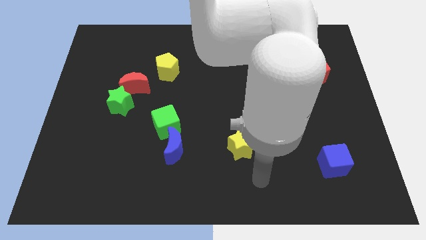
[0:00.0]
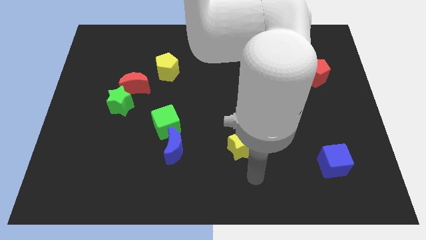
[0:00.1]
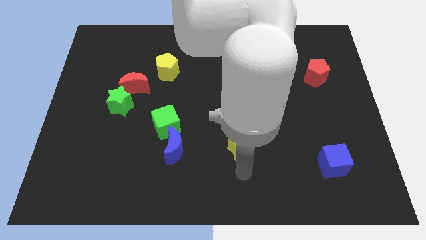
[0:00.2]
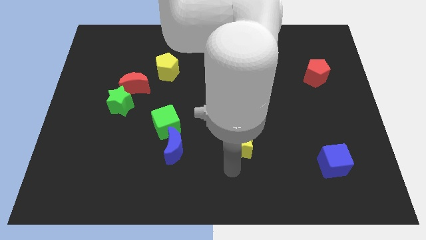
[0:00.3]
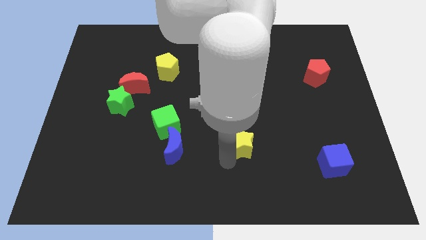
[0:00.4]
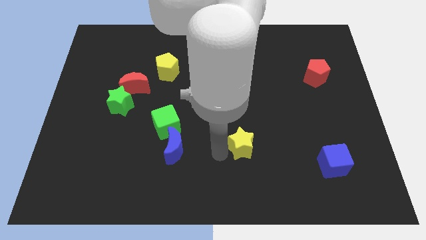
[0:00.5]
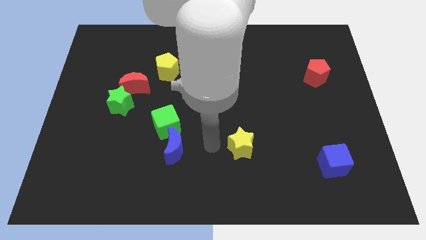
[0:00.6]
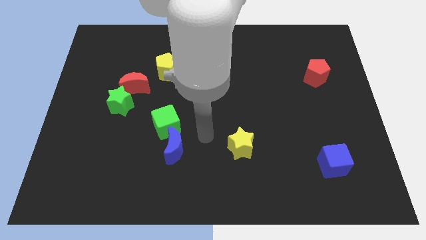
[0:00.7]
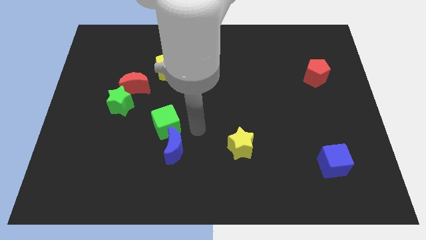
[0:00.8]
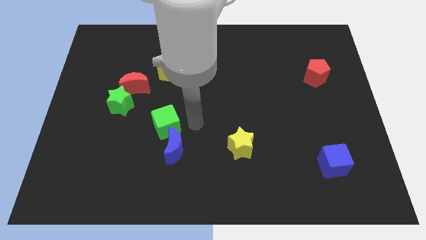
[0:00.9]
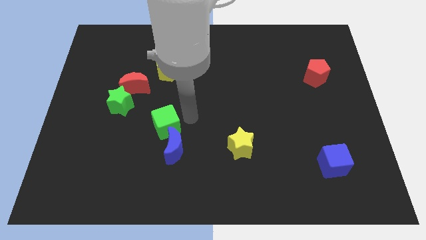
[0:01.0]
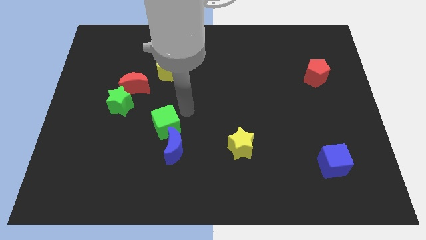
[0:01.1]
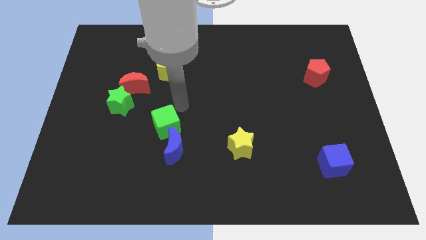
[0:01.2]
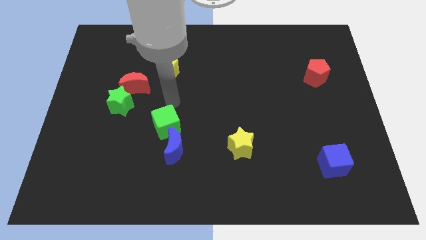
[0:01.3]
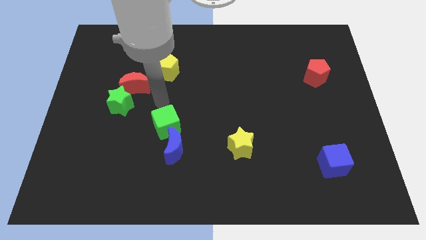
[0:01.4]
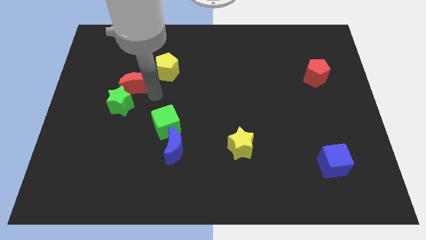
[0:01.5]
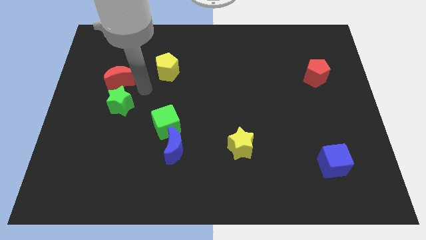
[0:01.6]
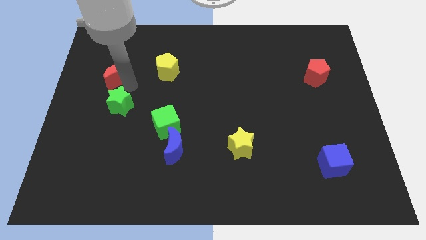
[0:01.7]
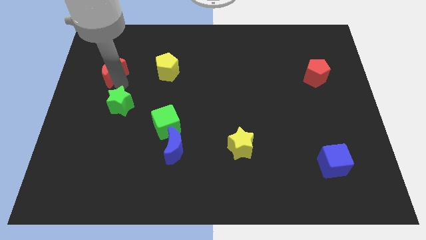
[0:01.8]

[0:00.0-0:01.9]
separate the green star from the red moon

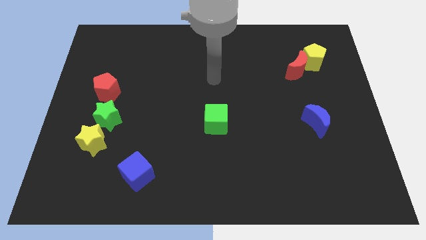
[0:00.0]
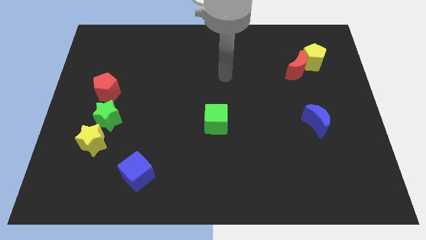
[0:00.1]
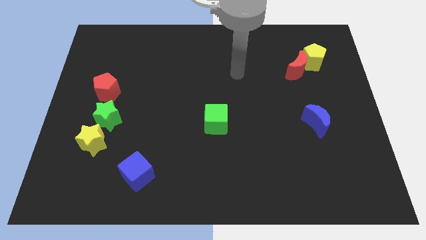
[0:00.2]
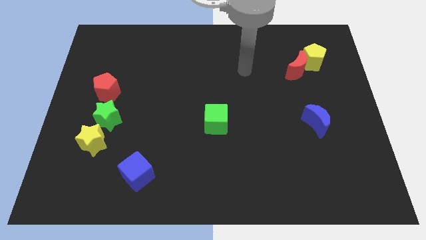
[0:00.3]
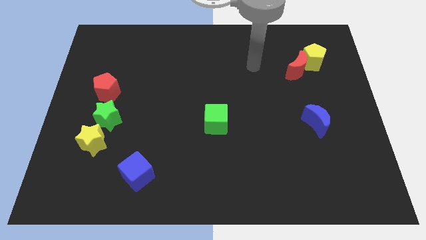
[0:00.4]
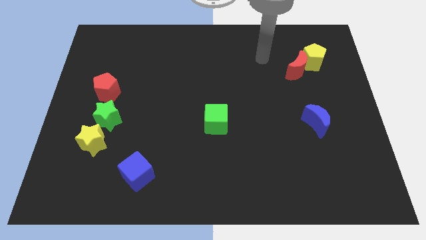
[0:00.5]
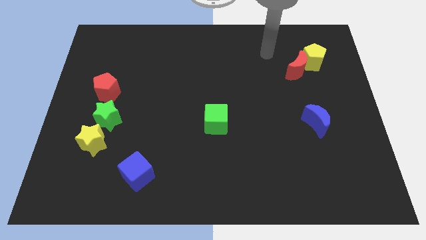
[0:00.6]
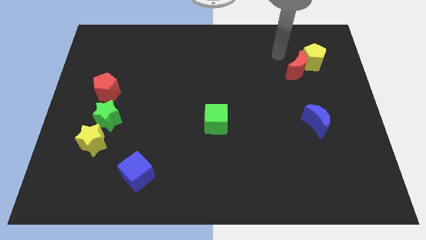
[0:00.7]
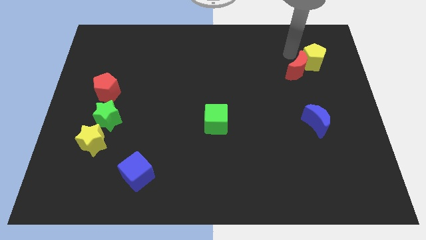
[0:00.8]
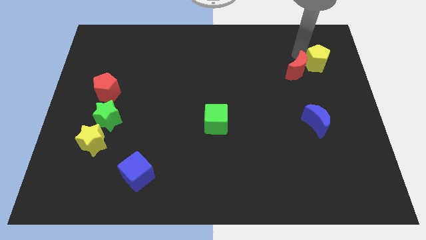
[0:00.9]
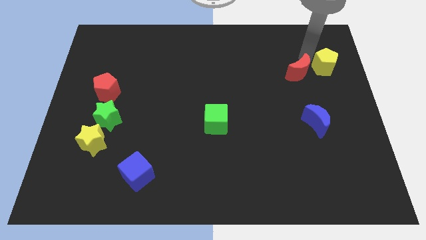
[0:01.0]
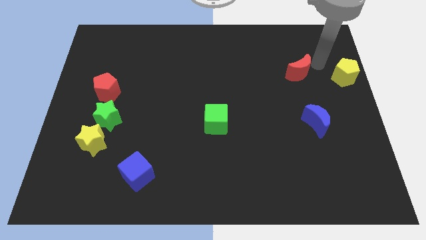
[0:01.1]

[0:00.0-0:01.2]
move the red moon away from the yellow pentagon

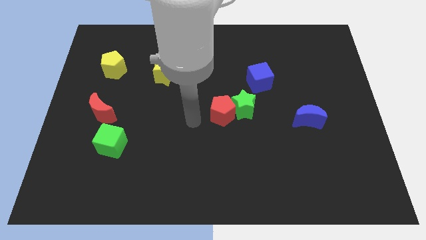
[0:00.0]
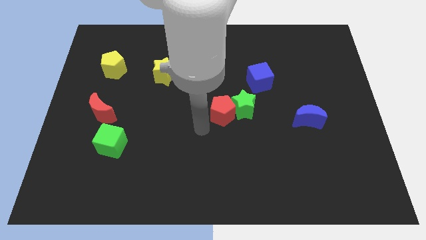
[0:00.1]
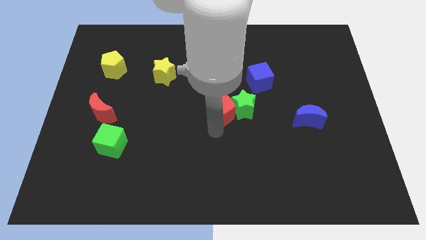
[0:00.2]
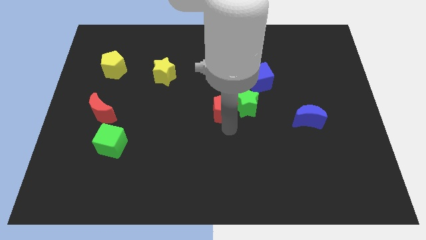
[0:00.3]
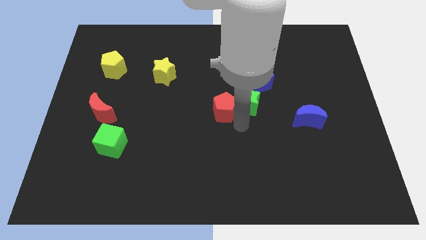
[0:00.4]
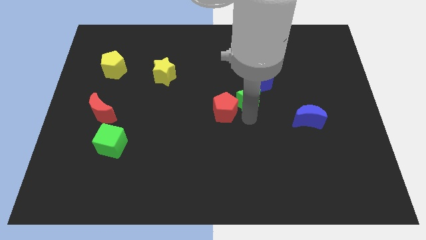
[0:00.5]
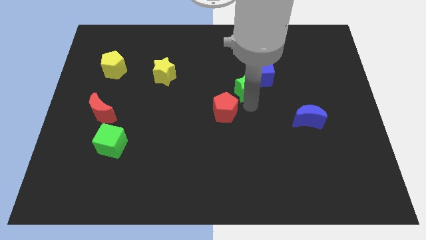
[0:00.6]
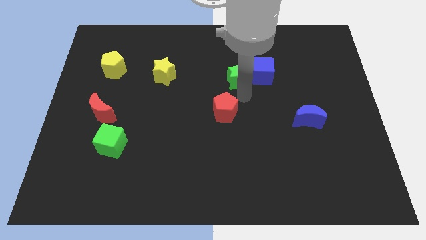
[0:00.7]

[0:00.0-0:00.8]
move the red pentagon away from the green star

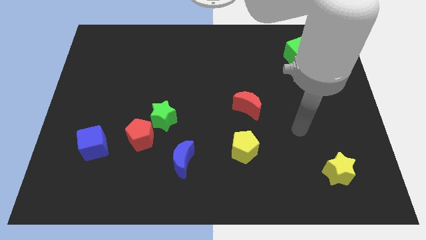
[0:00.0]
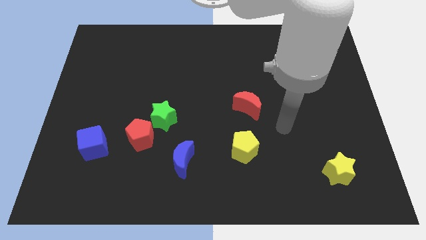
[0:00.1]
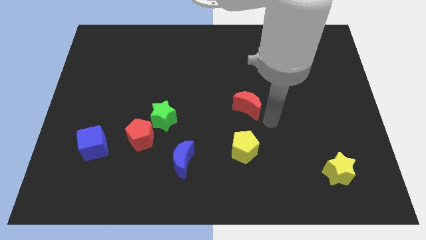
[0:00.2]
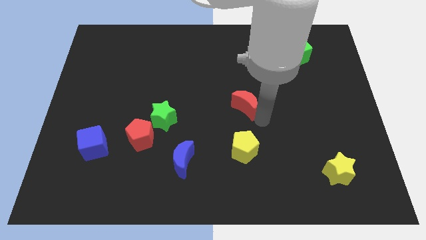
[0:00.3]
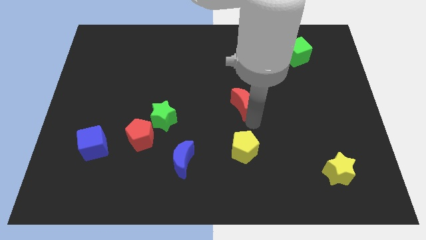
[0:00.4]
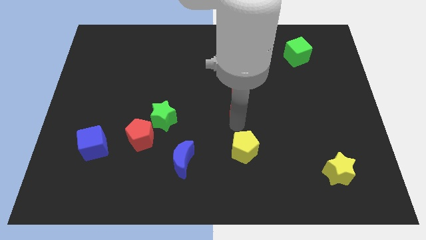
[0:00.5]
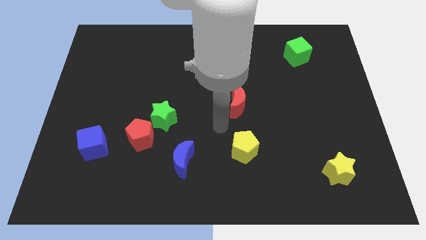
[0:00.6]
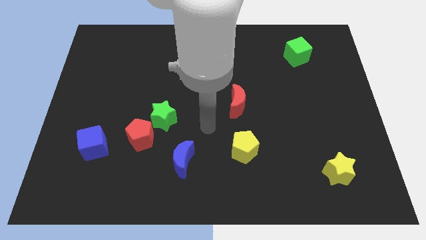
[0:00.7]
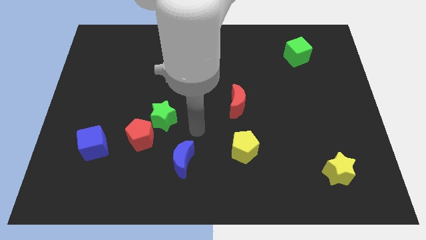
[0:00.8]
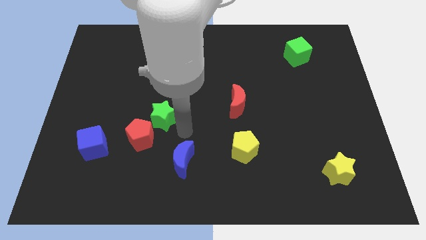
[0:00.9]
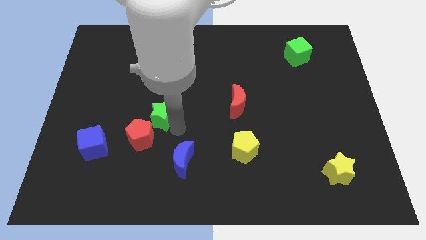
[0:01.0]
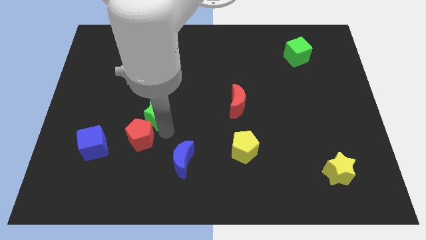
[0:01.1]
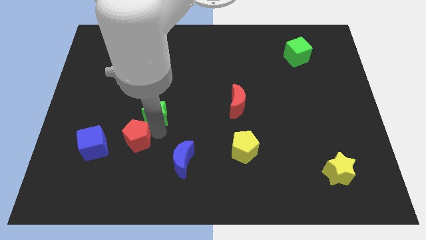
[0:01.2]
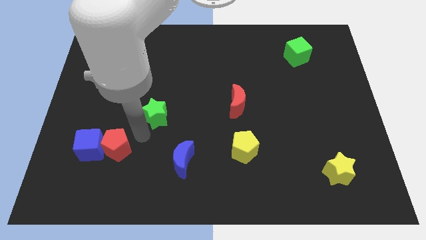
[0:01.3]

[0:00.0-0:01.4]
separate the green star from the red pentagon

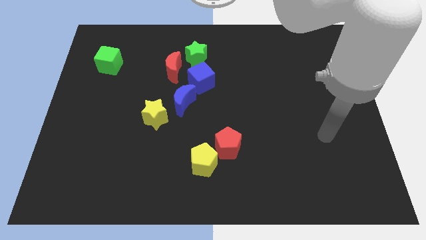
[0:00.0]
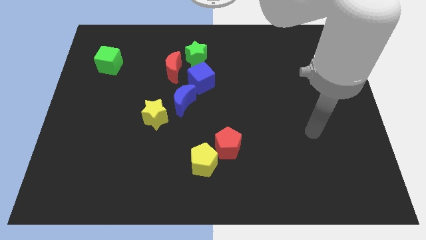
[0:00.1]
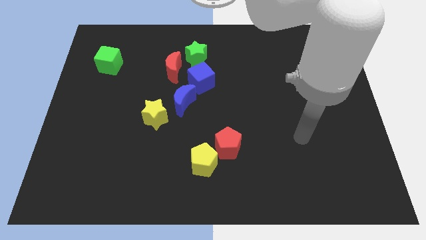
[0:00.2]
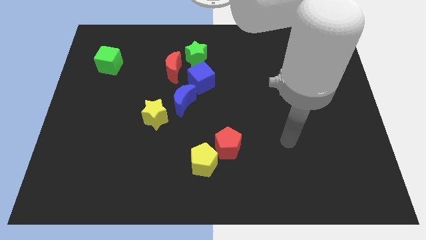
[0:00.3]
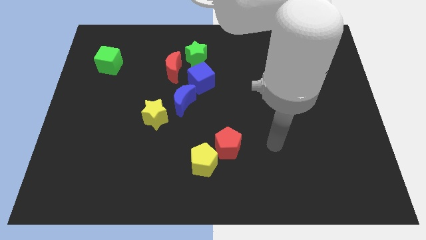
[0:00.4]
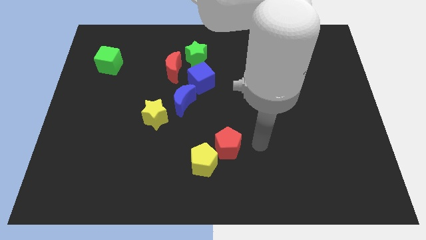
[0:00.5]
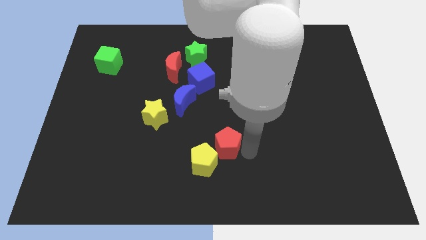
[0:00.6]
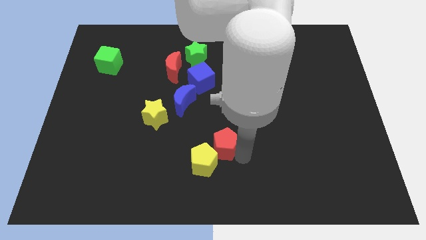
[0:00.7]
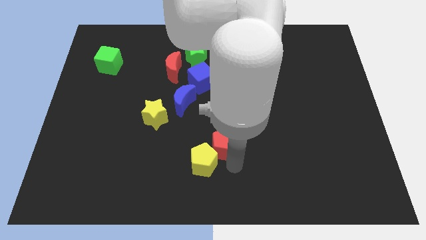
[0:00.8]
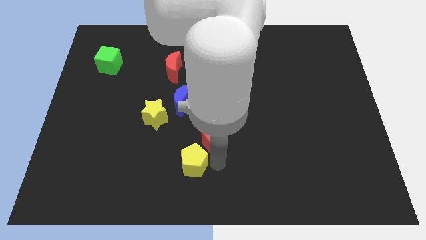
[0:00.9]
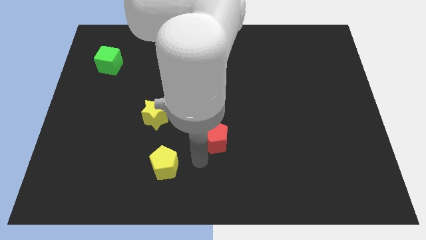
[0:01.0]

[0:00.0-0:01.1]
pull the red pentagon apart from the yellow pentagon

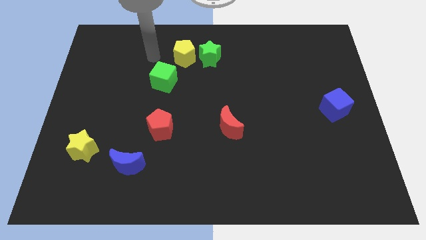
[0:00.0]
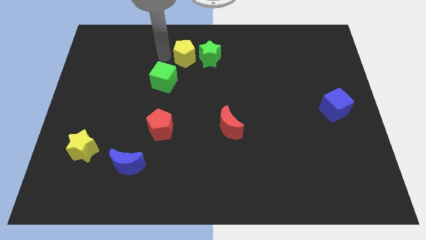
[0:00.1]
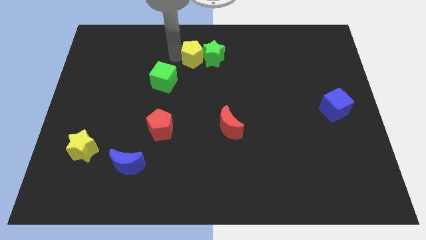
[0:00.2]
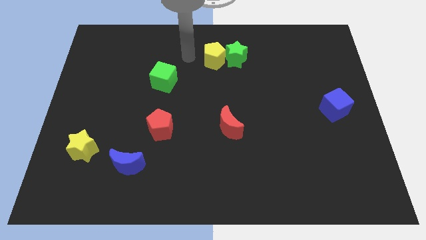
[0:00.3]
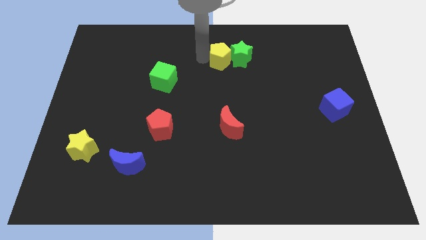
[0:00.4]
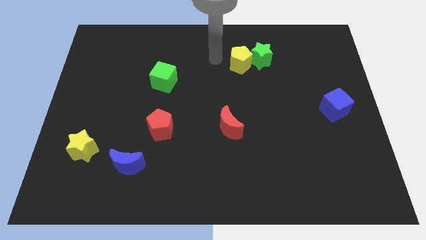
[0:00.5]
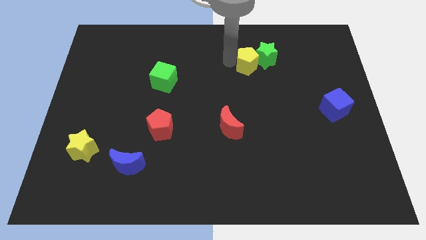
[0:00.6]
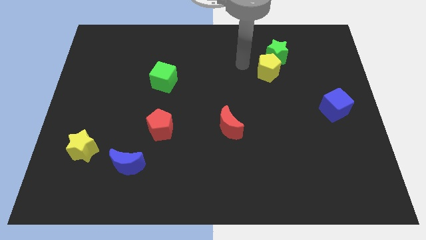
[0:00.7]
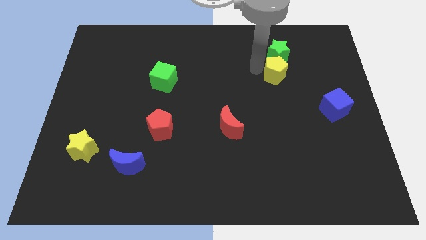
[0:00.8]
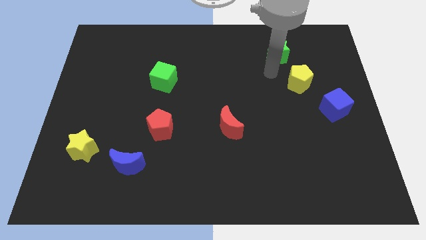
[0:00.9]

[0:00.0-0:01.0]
move the green star away from the yellow pentagon

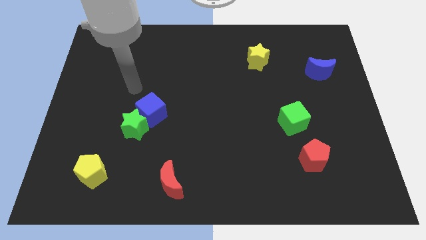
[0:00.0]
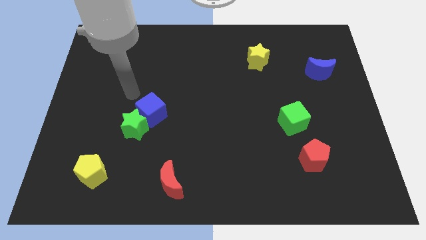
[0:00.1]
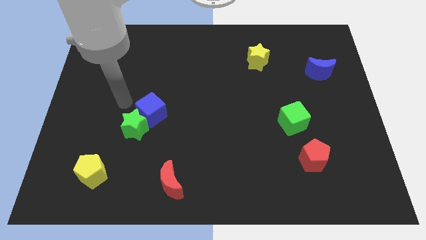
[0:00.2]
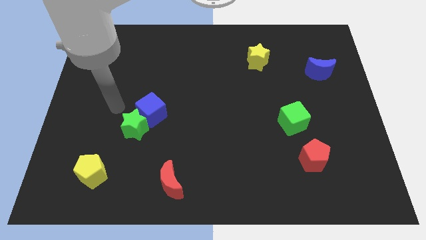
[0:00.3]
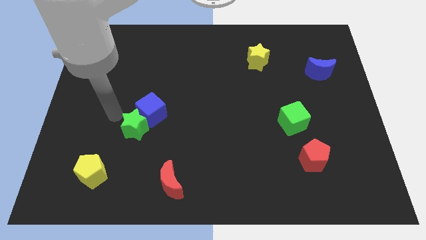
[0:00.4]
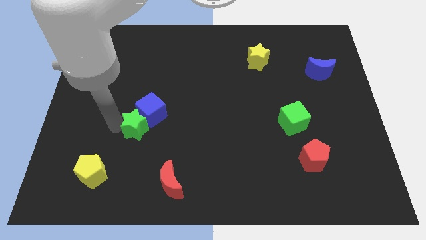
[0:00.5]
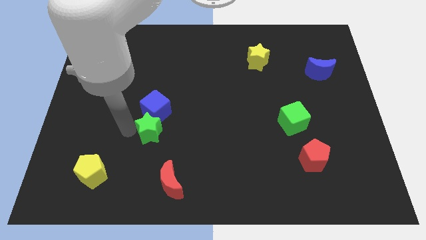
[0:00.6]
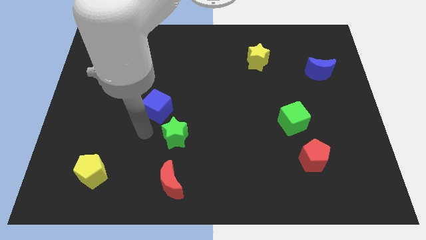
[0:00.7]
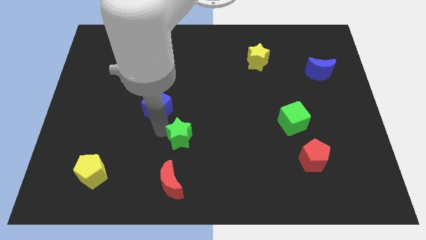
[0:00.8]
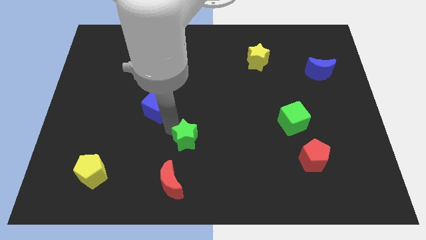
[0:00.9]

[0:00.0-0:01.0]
separate the blue cube from the green star

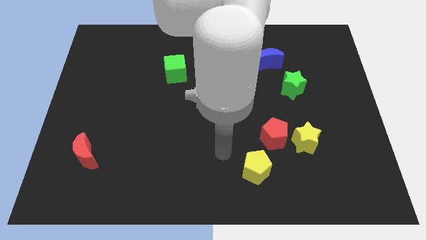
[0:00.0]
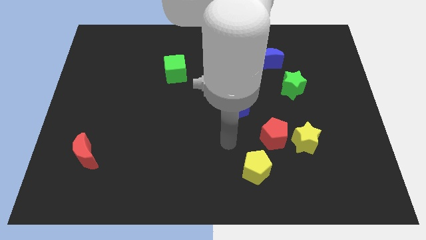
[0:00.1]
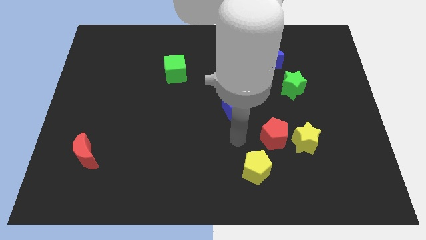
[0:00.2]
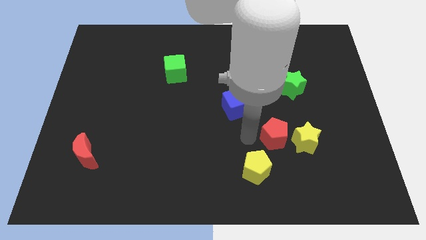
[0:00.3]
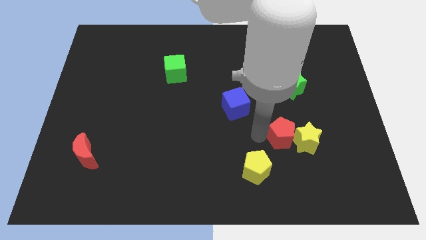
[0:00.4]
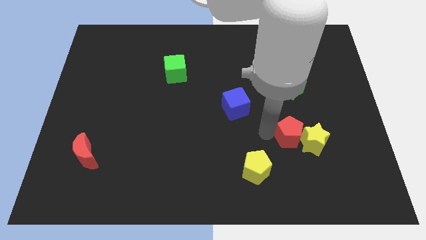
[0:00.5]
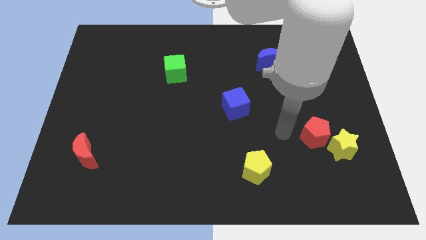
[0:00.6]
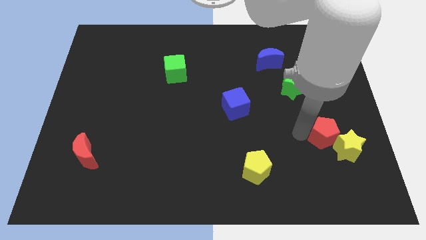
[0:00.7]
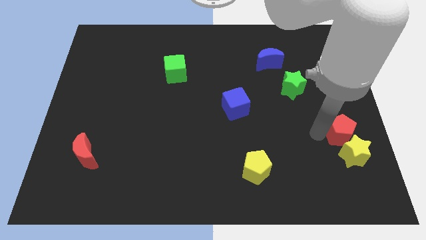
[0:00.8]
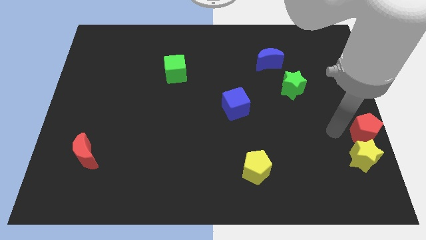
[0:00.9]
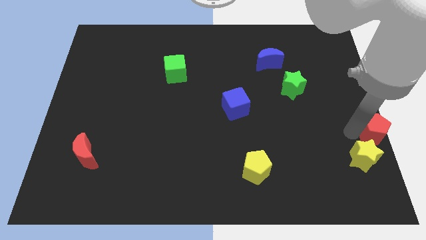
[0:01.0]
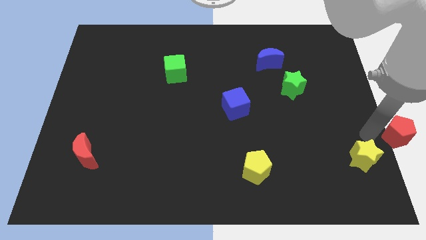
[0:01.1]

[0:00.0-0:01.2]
separate the yellow star from the red pentagon
